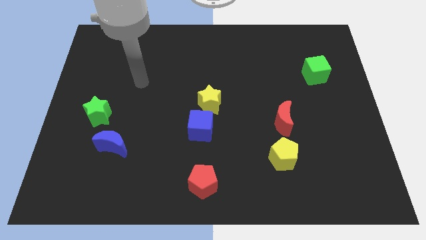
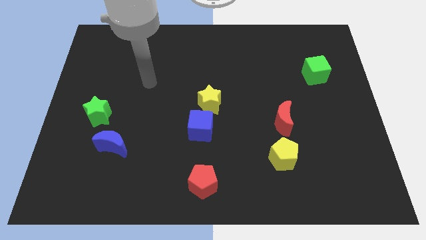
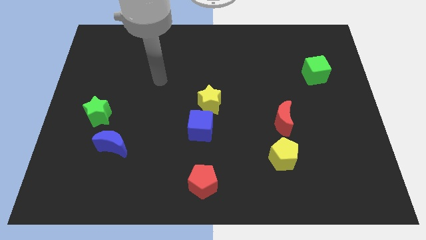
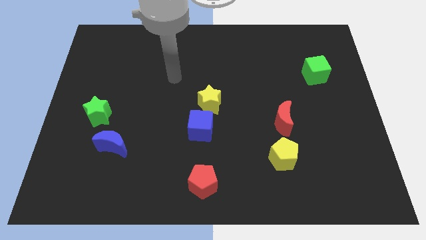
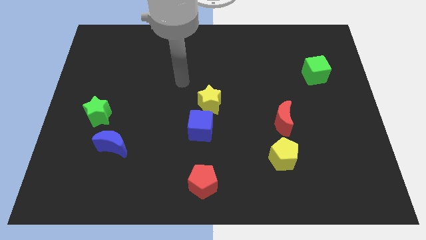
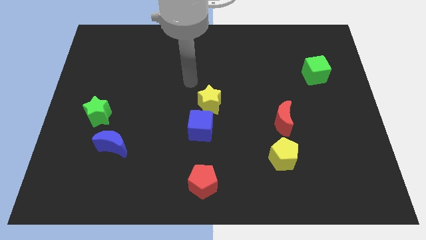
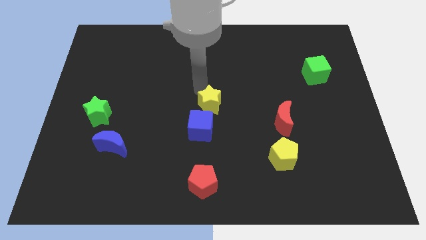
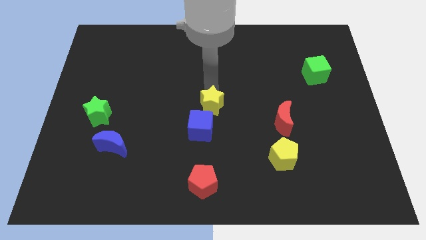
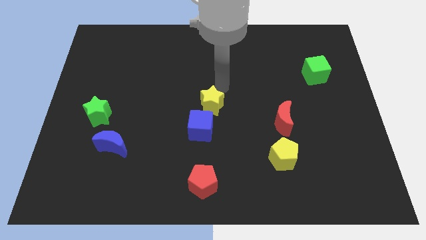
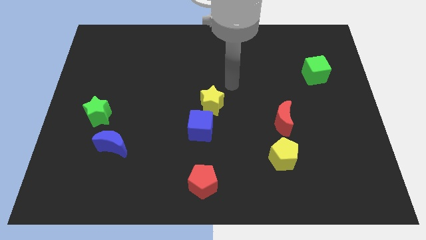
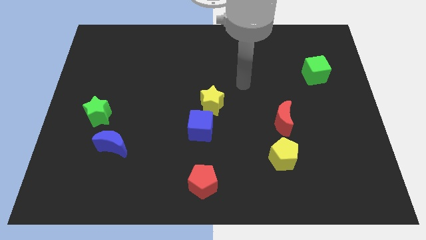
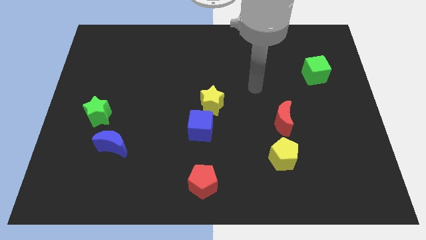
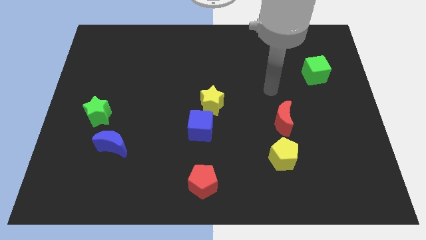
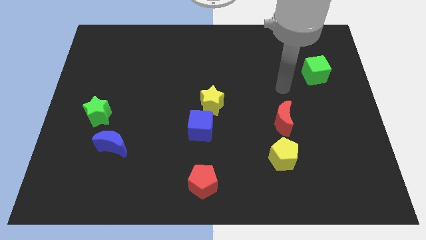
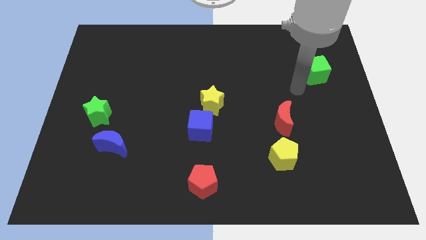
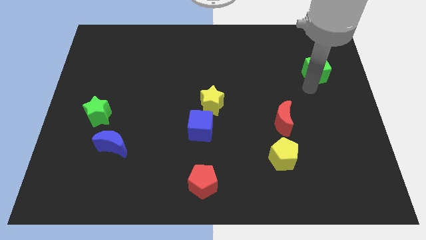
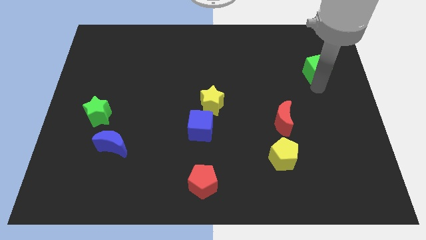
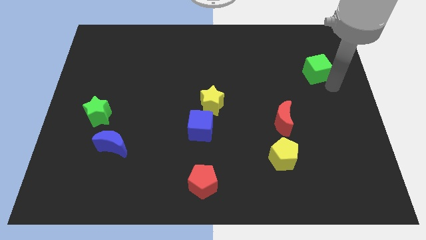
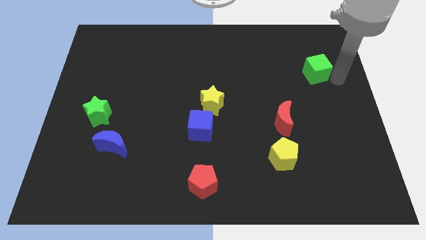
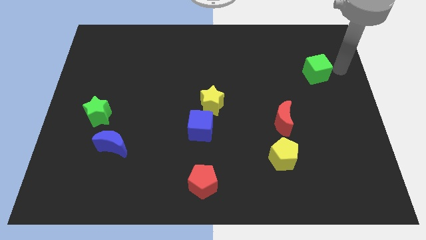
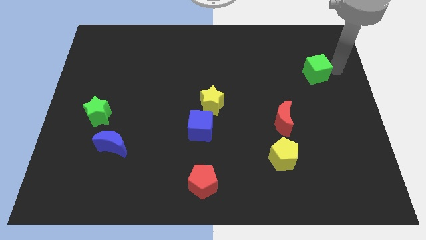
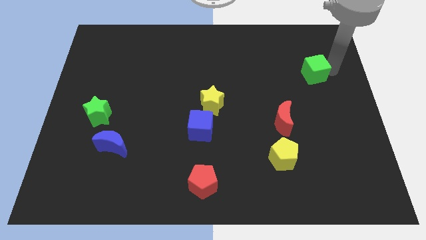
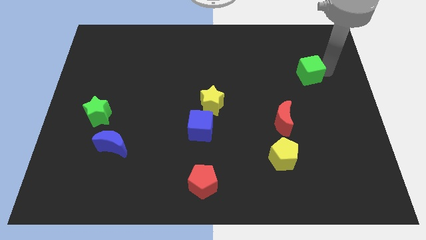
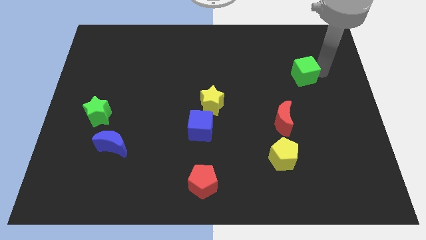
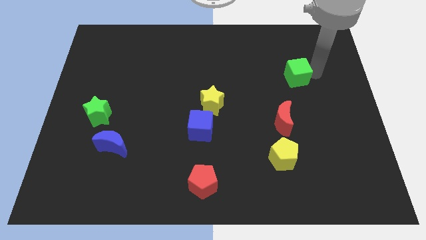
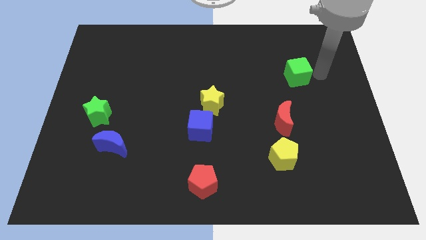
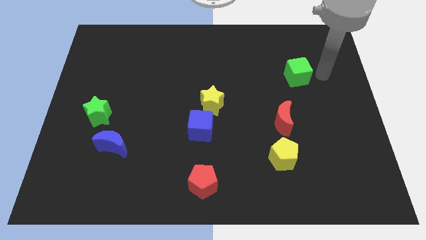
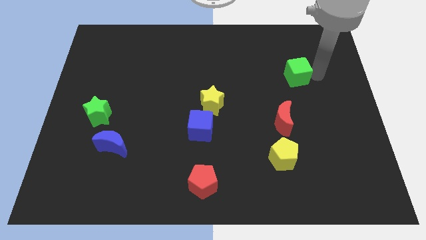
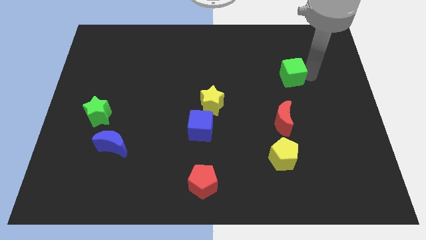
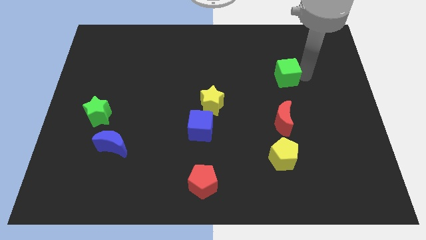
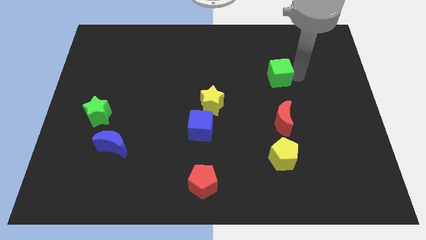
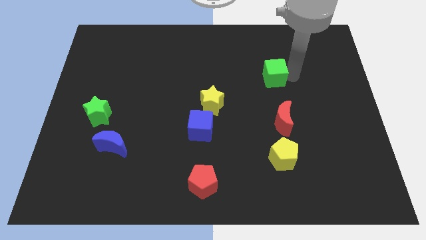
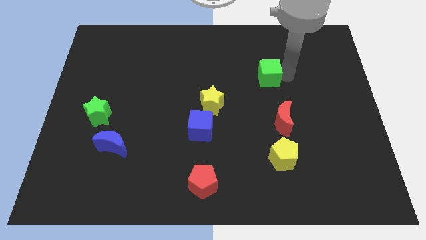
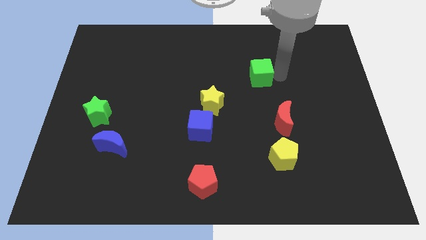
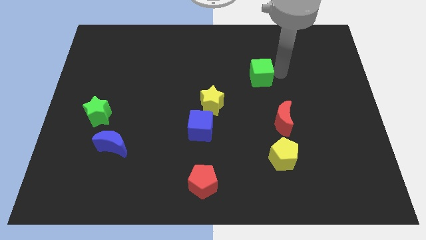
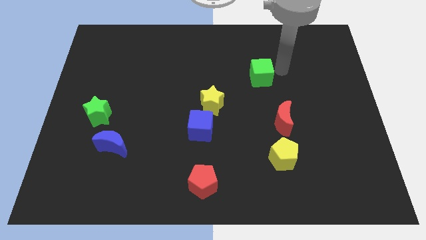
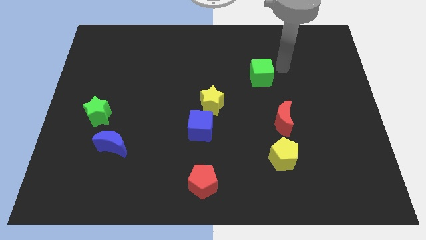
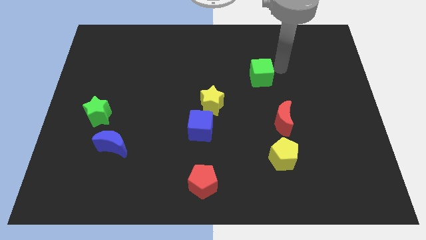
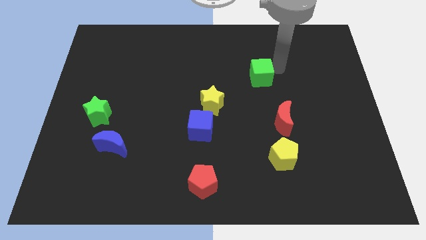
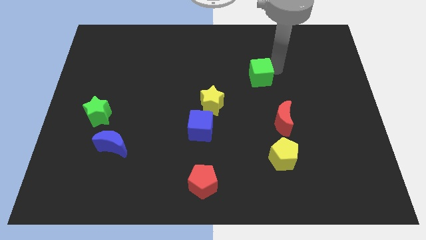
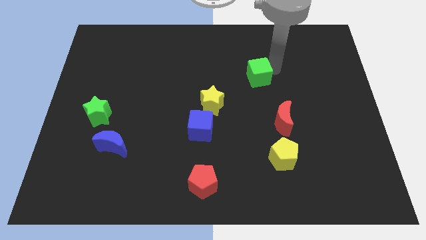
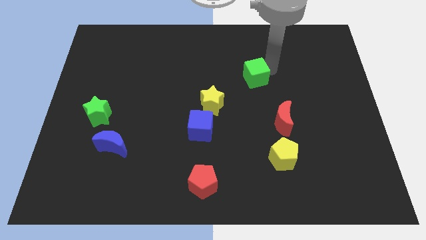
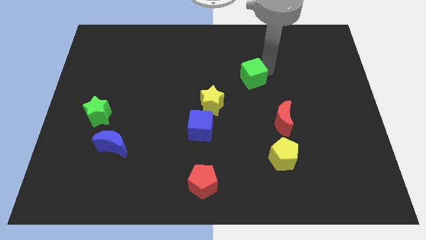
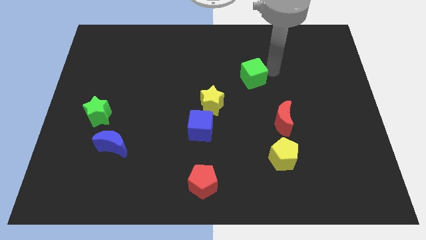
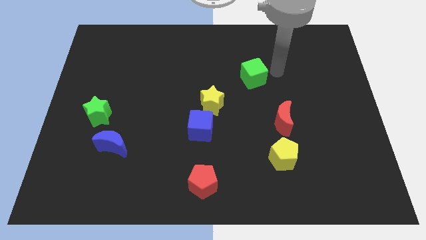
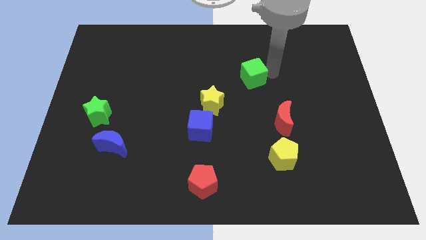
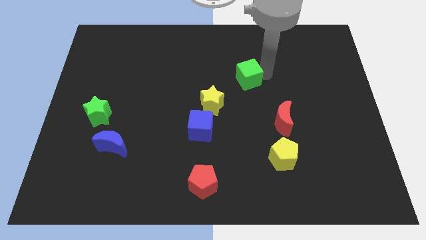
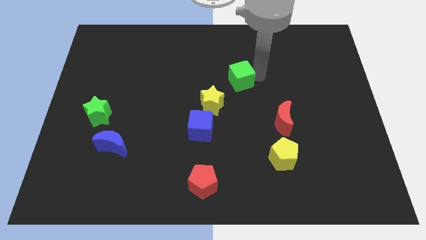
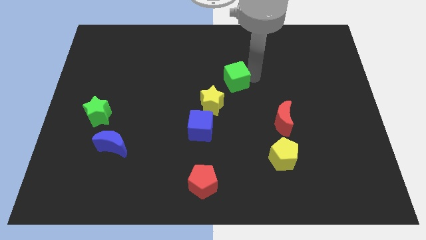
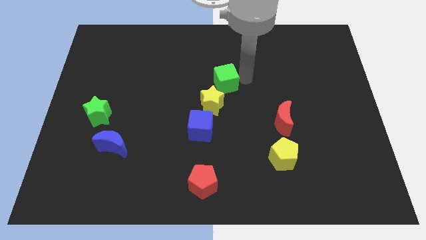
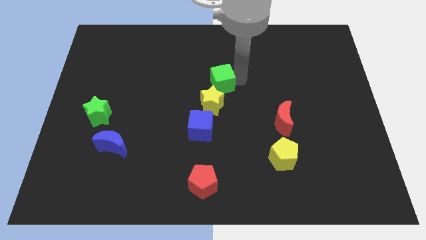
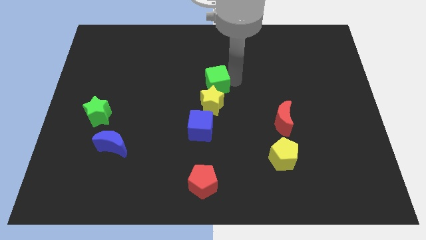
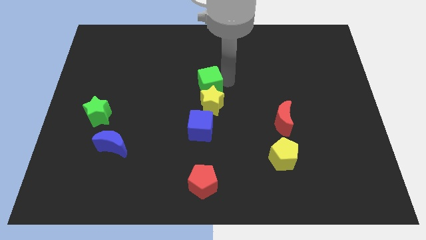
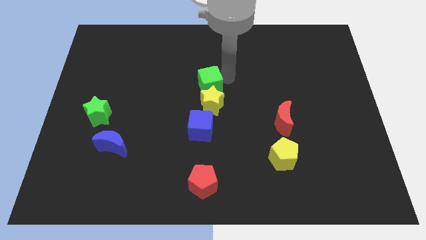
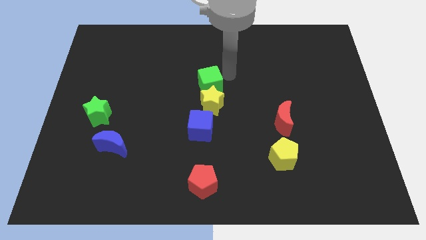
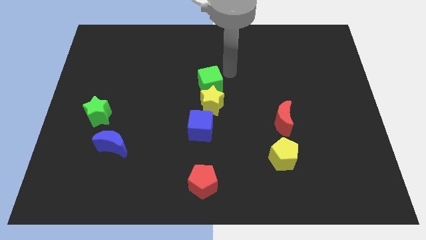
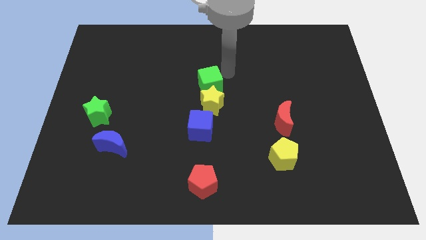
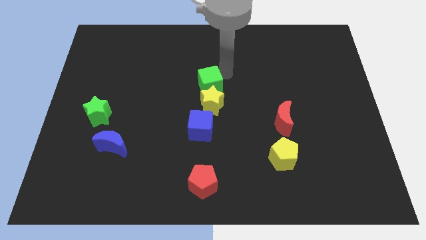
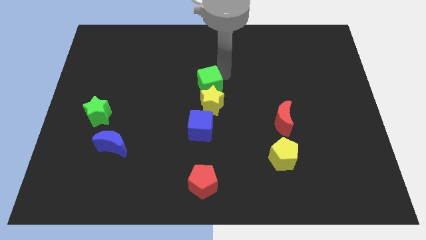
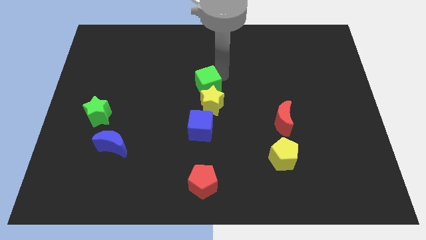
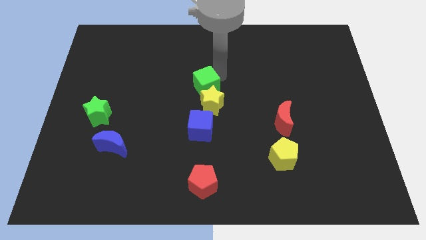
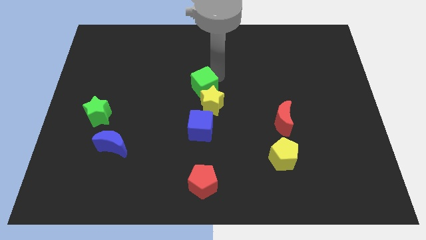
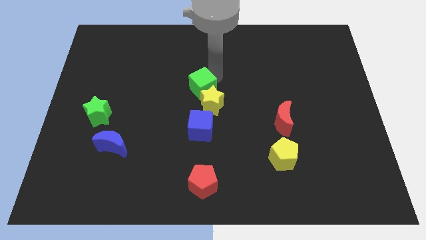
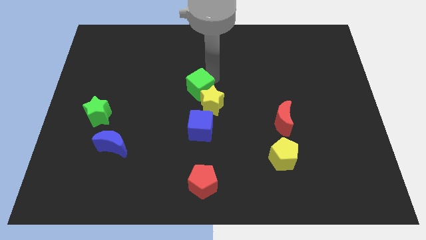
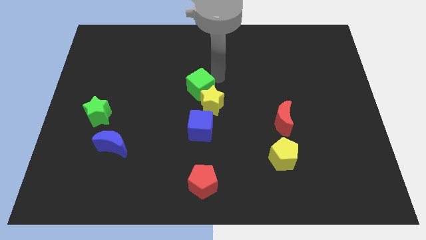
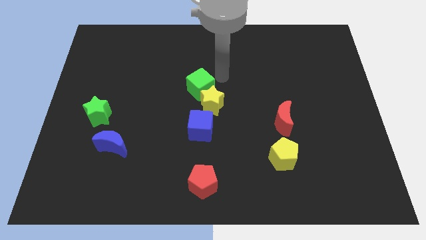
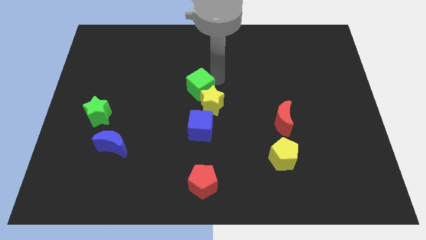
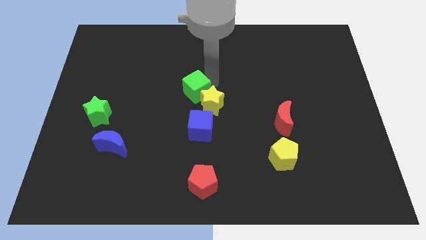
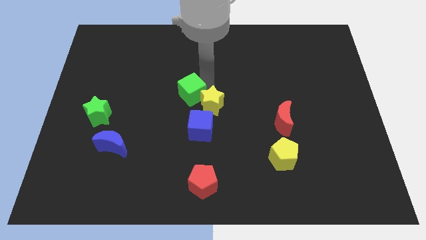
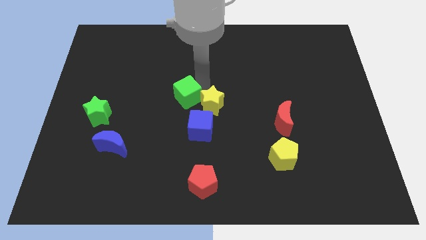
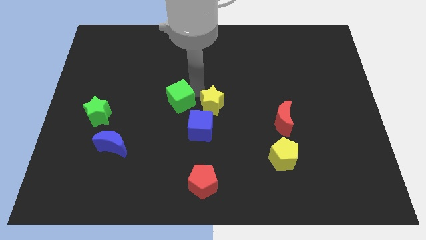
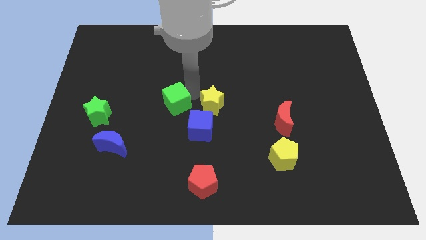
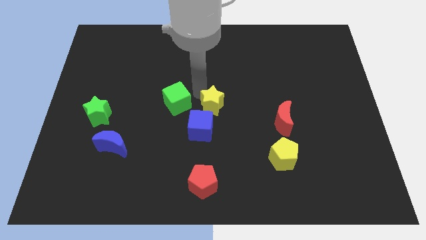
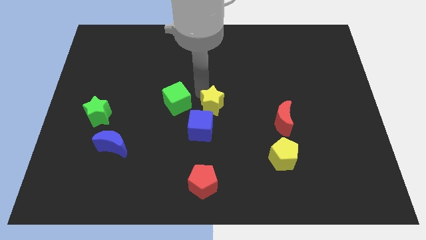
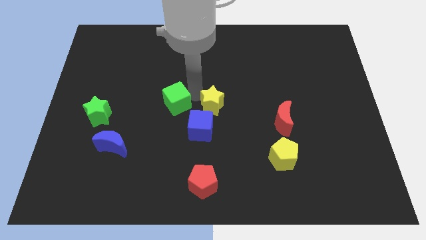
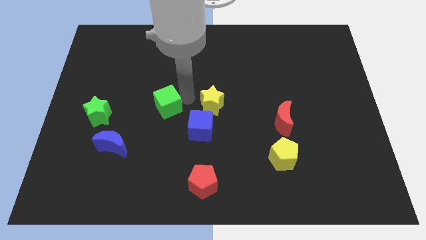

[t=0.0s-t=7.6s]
slide the green cube just right of the green star
